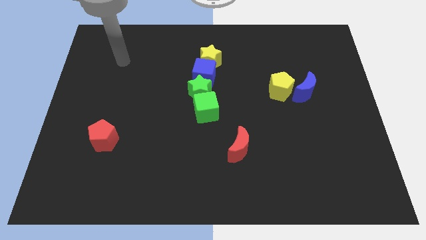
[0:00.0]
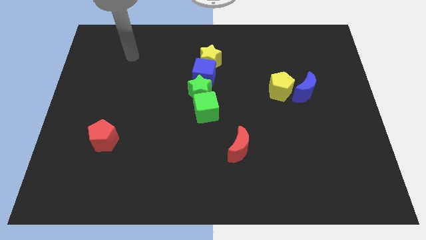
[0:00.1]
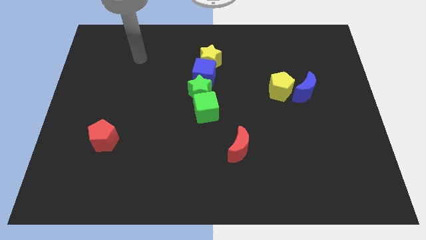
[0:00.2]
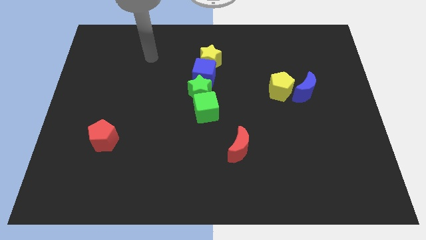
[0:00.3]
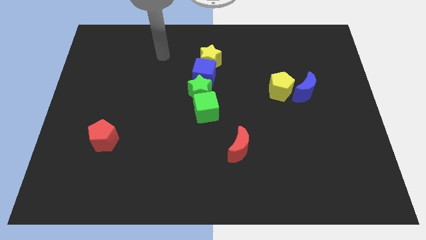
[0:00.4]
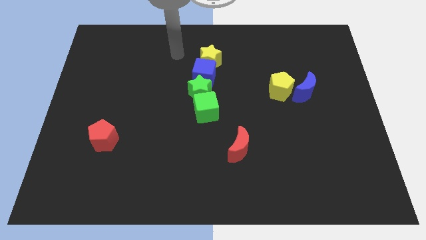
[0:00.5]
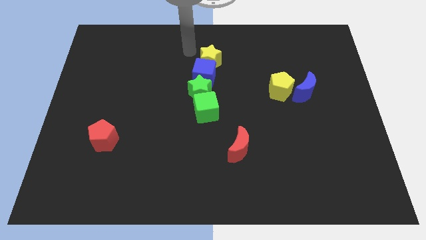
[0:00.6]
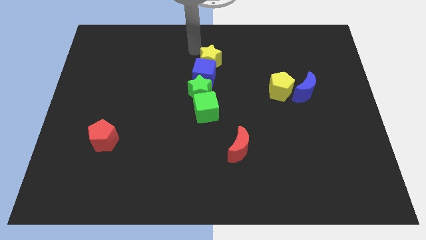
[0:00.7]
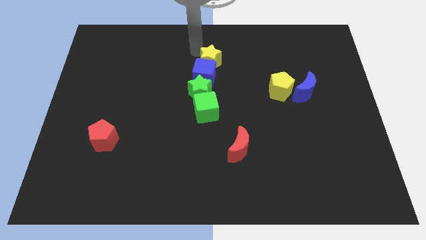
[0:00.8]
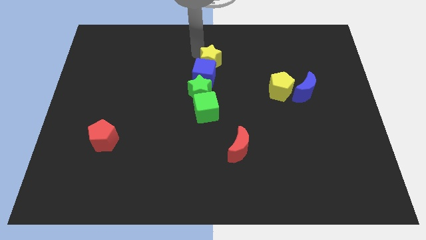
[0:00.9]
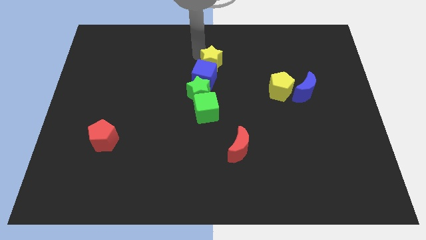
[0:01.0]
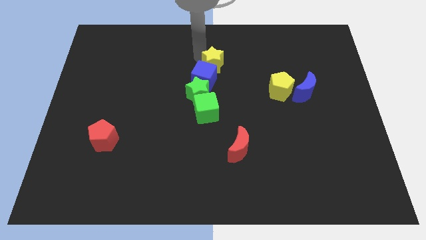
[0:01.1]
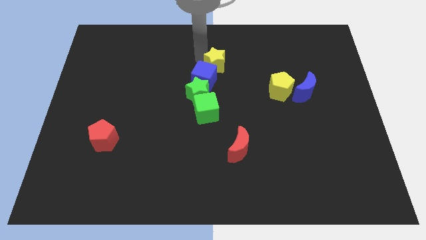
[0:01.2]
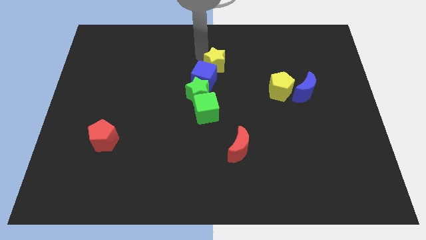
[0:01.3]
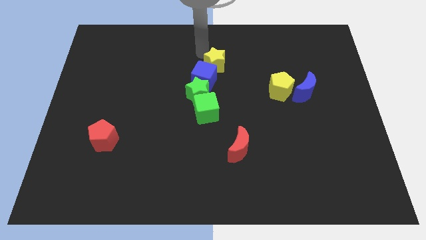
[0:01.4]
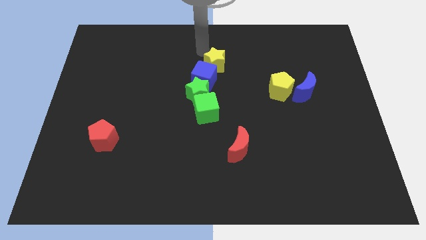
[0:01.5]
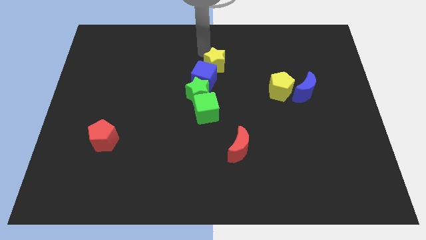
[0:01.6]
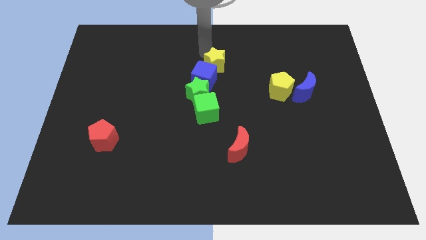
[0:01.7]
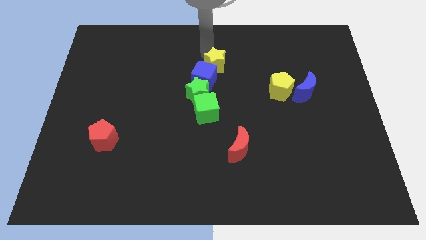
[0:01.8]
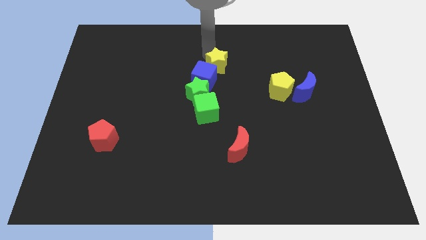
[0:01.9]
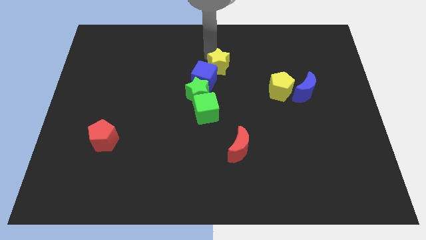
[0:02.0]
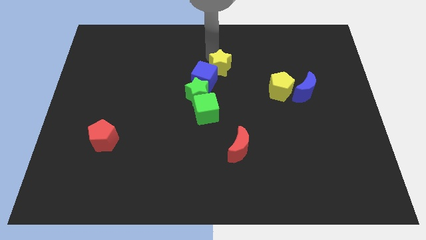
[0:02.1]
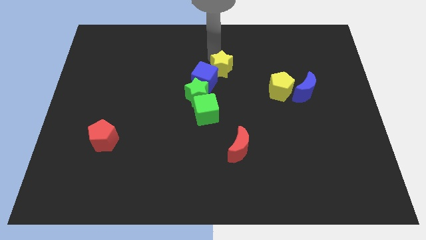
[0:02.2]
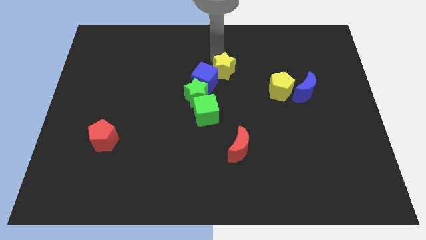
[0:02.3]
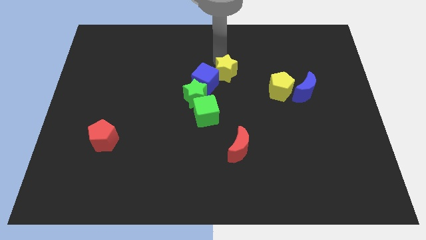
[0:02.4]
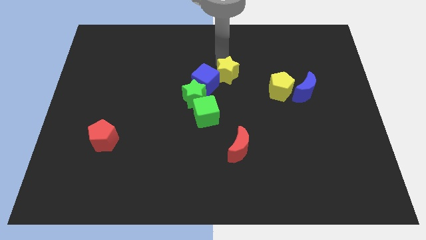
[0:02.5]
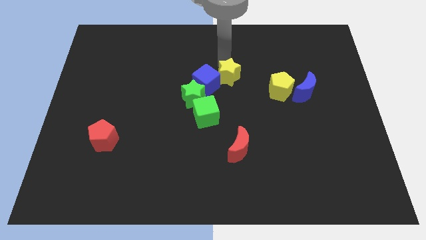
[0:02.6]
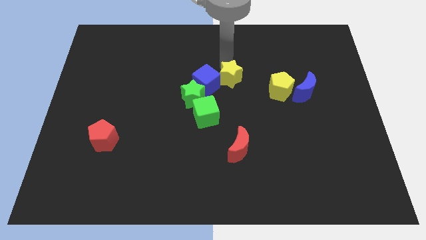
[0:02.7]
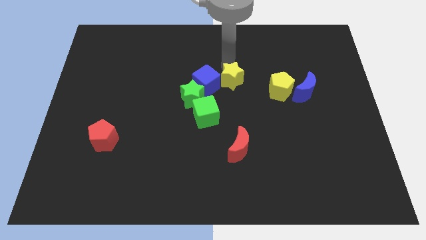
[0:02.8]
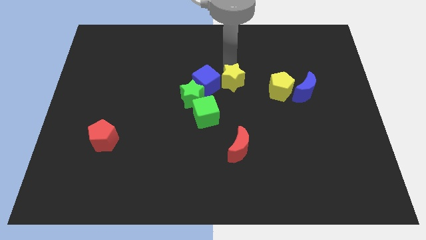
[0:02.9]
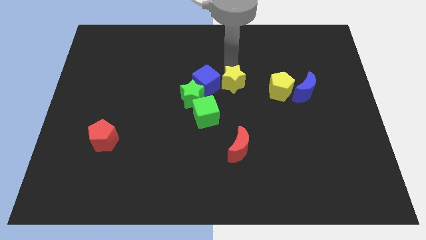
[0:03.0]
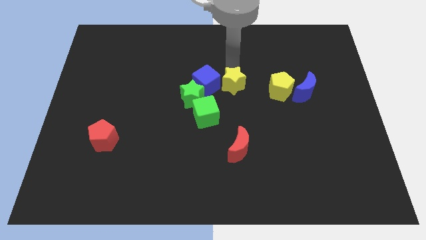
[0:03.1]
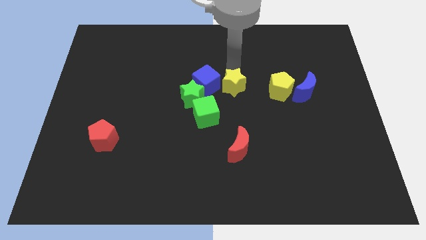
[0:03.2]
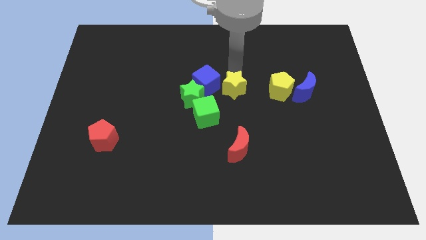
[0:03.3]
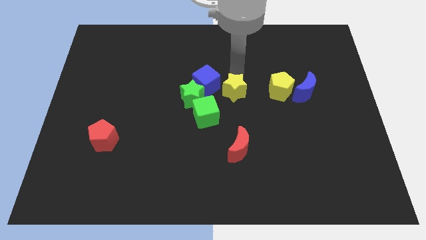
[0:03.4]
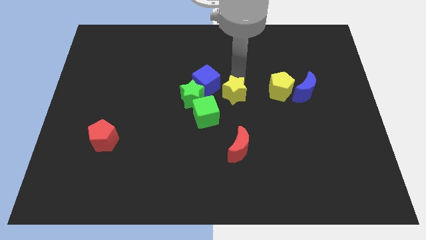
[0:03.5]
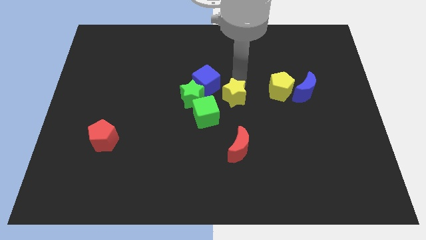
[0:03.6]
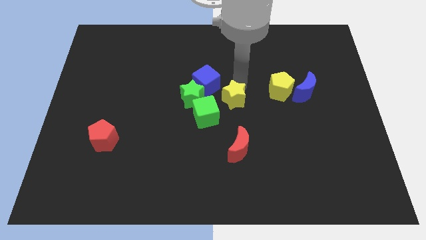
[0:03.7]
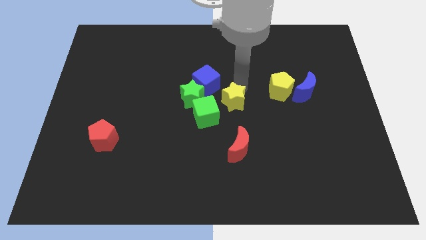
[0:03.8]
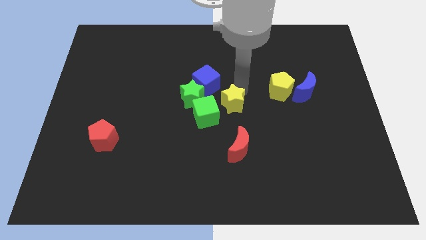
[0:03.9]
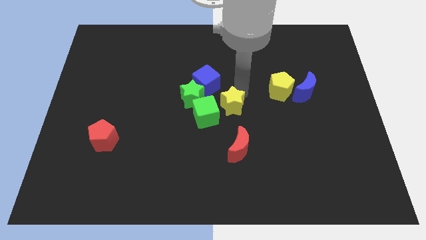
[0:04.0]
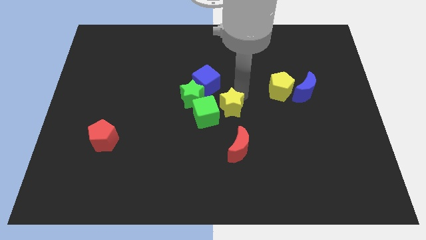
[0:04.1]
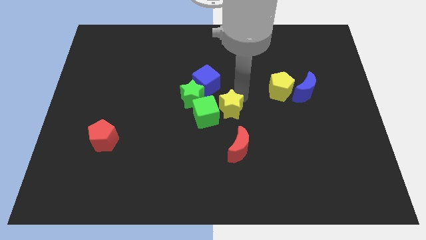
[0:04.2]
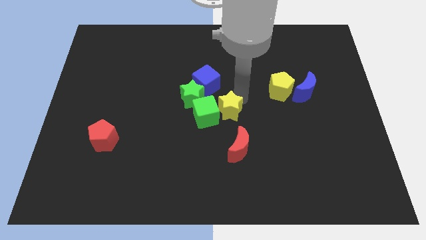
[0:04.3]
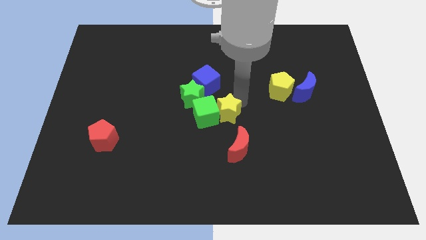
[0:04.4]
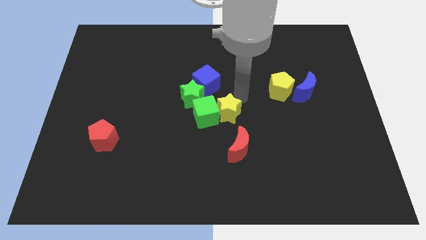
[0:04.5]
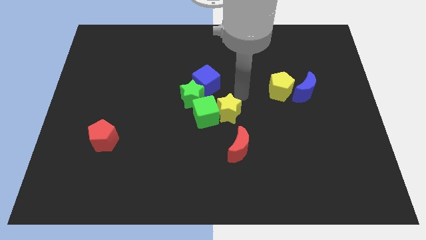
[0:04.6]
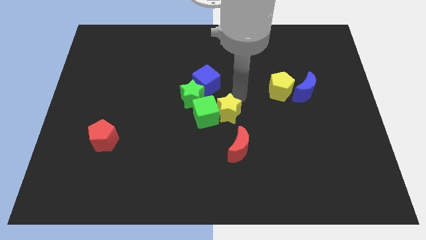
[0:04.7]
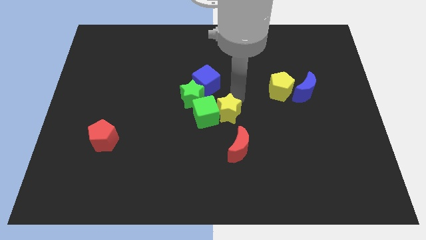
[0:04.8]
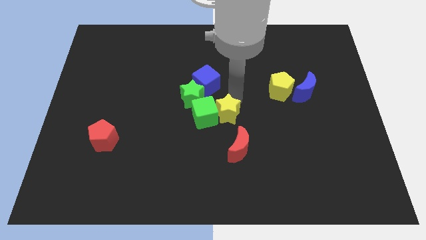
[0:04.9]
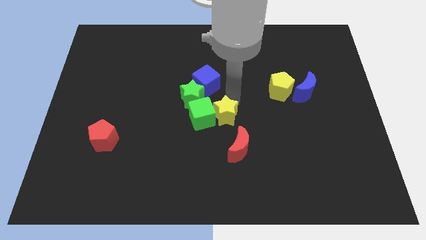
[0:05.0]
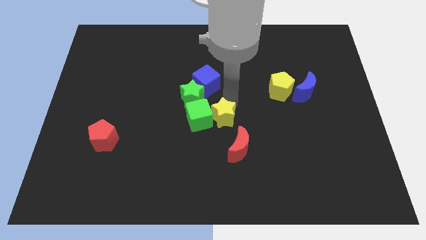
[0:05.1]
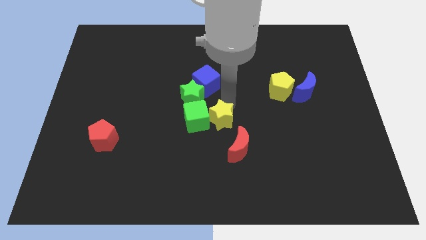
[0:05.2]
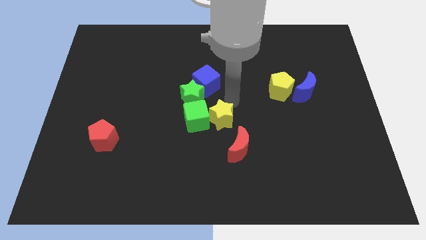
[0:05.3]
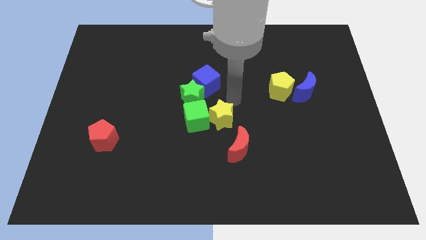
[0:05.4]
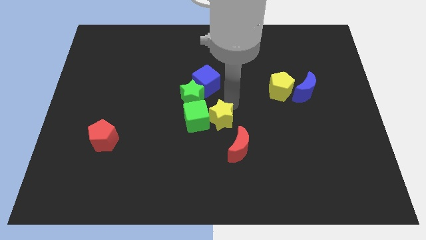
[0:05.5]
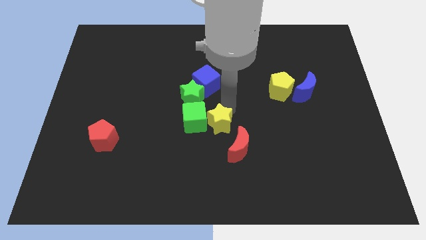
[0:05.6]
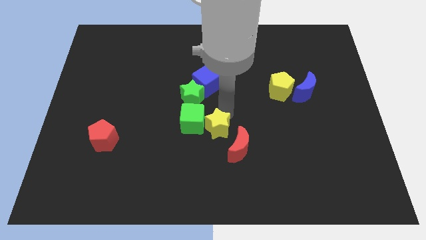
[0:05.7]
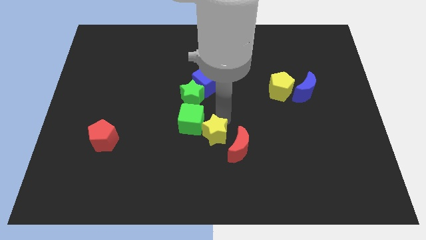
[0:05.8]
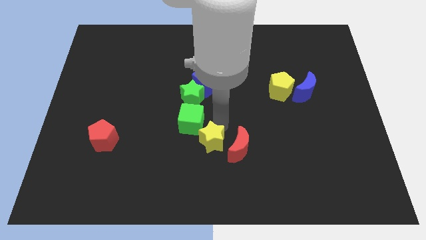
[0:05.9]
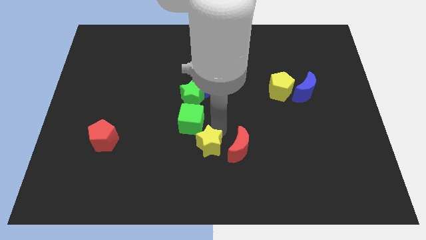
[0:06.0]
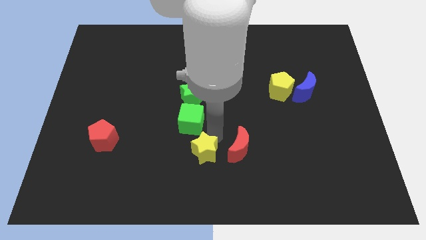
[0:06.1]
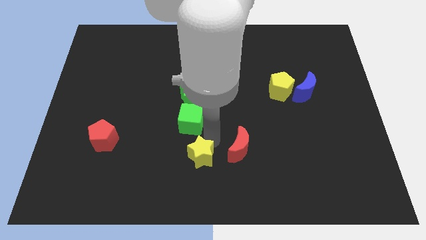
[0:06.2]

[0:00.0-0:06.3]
slide the yellow star to the bottom
